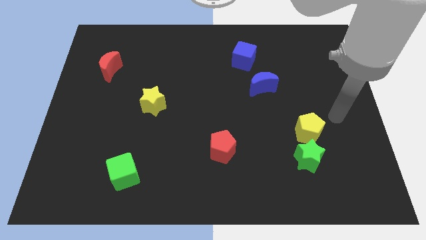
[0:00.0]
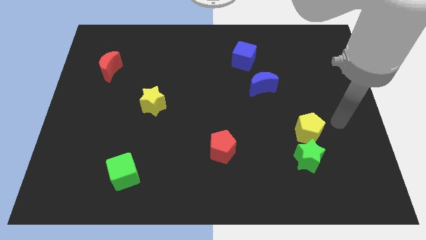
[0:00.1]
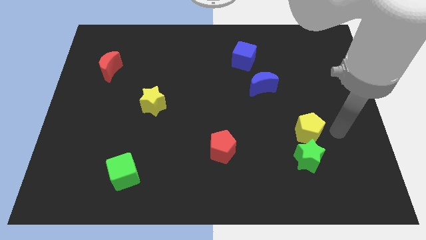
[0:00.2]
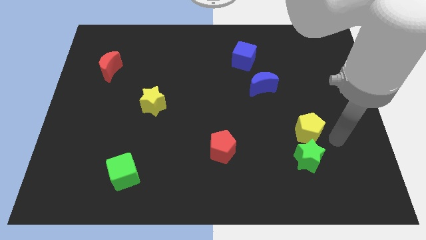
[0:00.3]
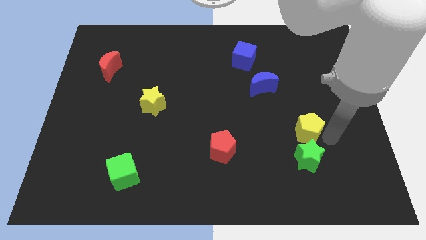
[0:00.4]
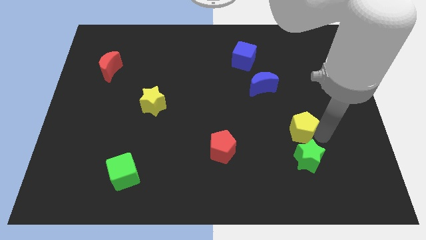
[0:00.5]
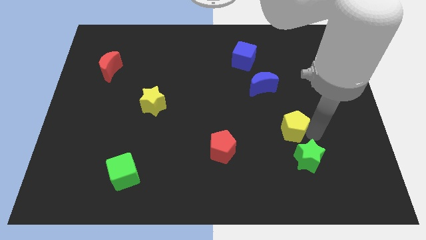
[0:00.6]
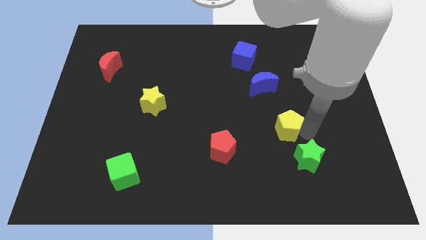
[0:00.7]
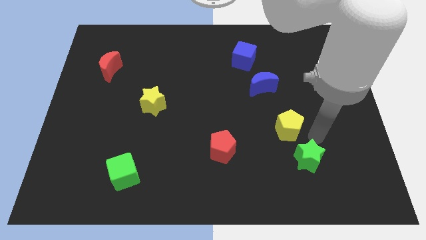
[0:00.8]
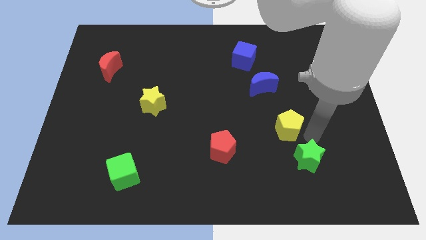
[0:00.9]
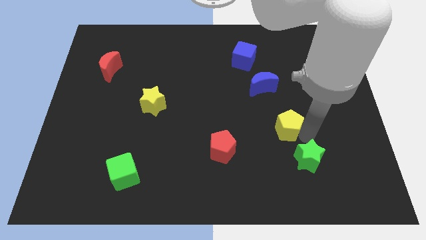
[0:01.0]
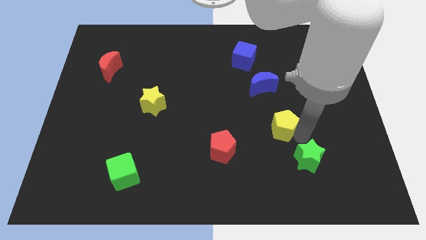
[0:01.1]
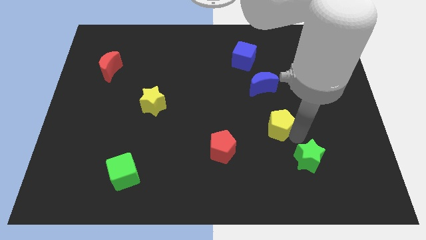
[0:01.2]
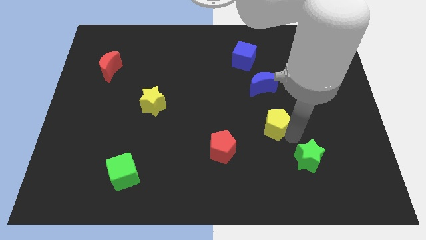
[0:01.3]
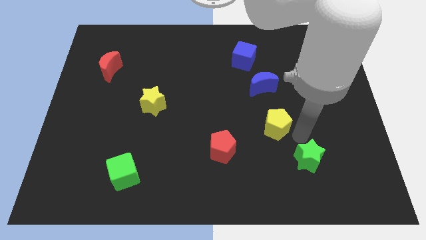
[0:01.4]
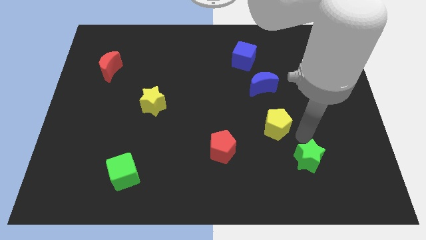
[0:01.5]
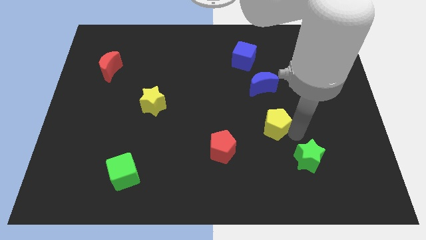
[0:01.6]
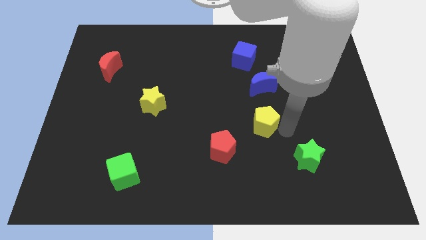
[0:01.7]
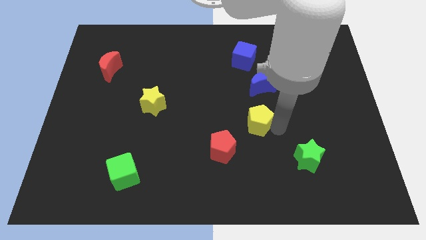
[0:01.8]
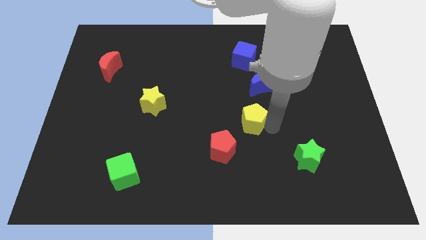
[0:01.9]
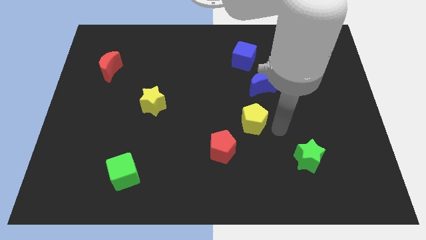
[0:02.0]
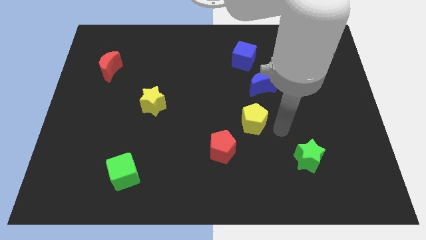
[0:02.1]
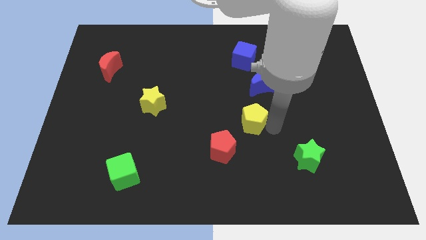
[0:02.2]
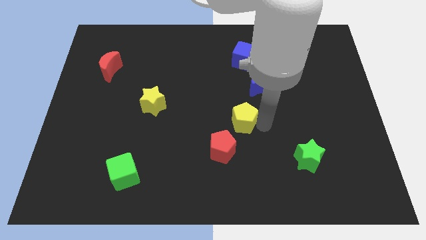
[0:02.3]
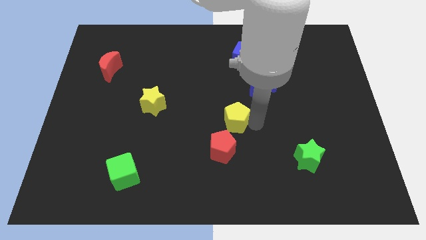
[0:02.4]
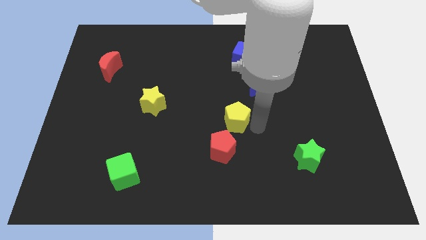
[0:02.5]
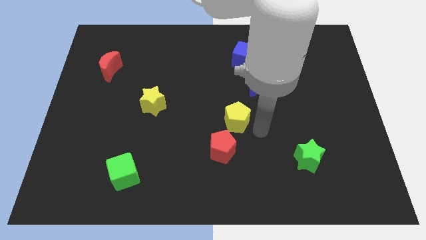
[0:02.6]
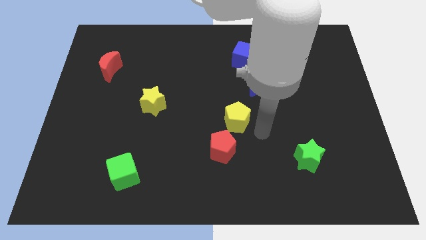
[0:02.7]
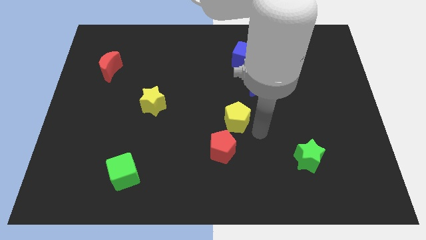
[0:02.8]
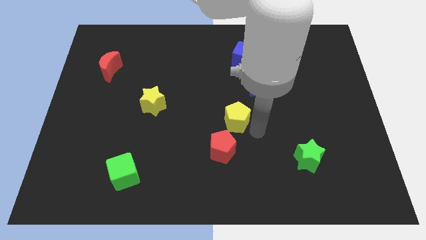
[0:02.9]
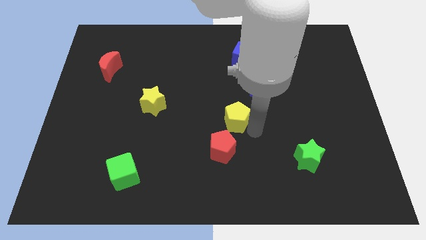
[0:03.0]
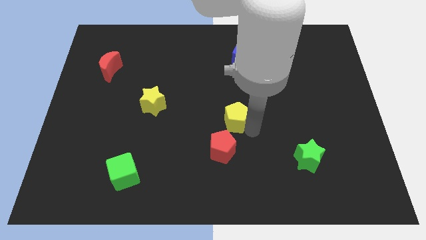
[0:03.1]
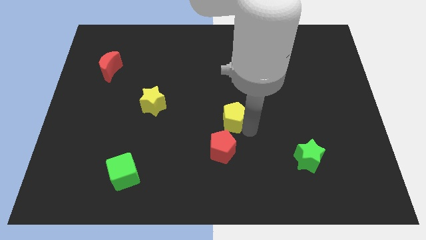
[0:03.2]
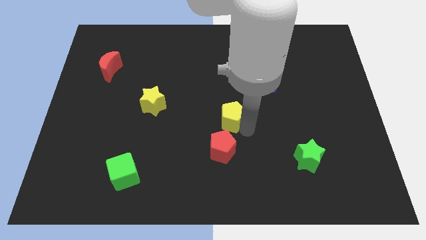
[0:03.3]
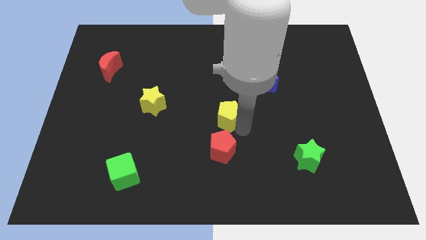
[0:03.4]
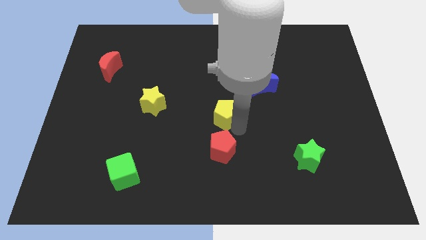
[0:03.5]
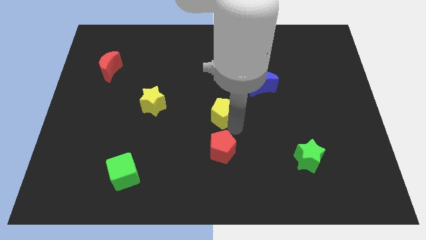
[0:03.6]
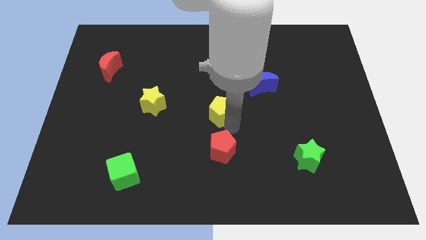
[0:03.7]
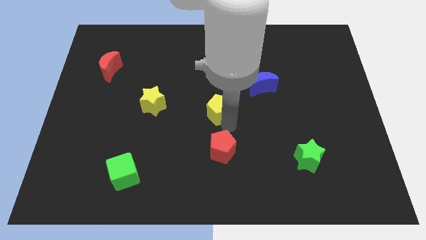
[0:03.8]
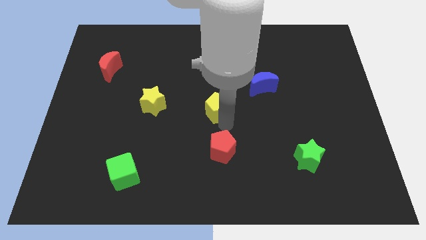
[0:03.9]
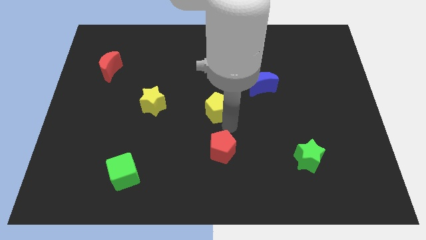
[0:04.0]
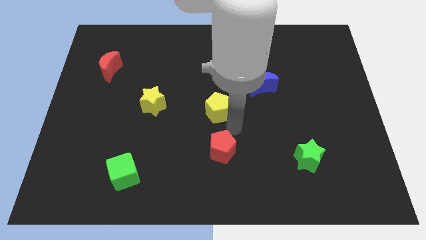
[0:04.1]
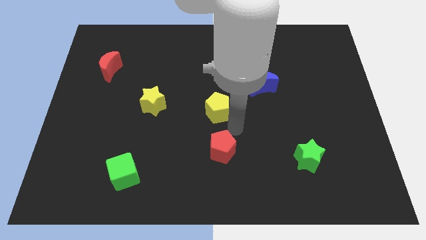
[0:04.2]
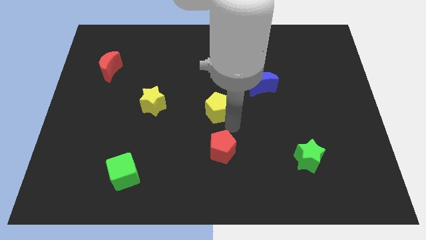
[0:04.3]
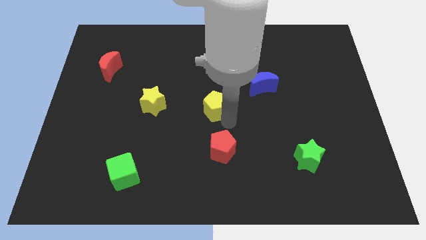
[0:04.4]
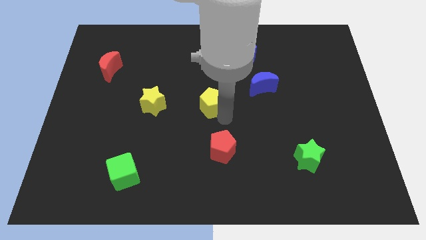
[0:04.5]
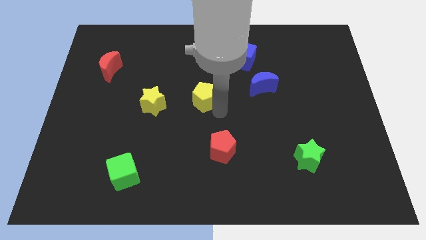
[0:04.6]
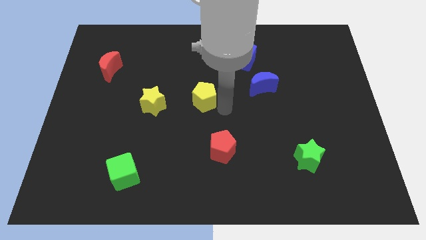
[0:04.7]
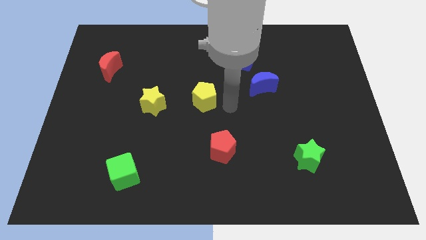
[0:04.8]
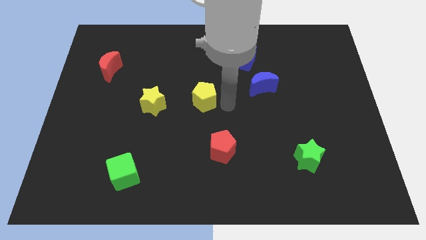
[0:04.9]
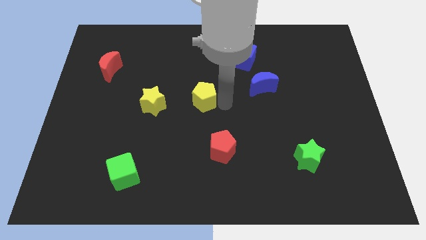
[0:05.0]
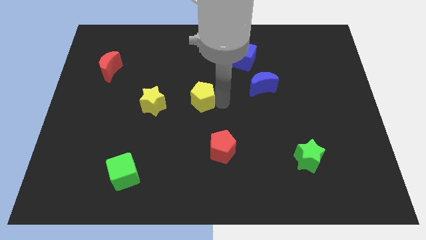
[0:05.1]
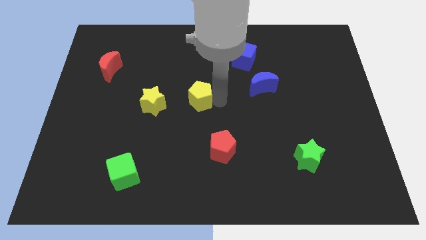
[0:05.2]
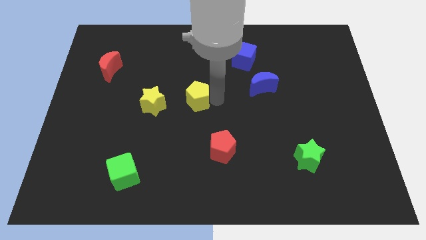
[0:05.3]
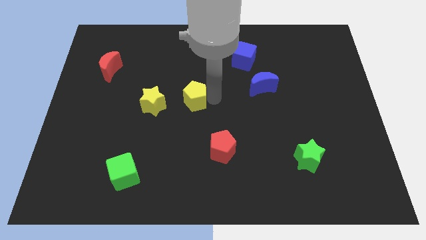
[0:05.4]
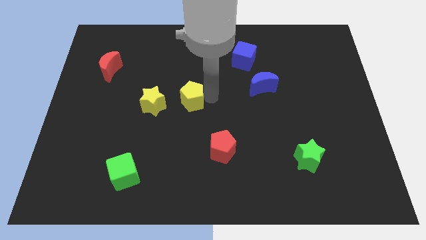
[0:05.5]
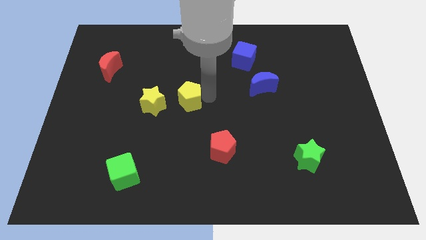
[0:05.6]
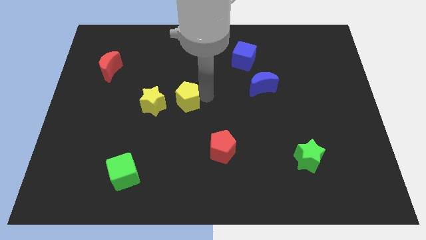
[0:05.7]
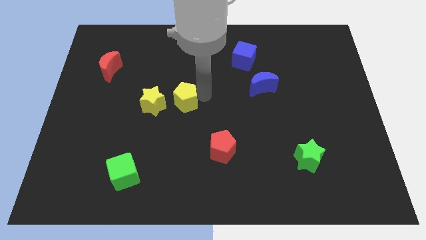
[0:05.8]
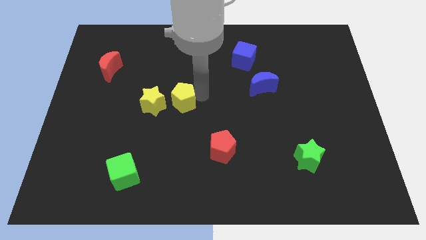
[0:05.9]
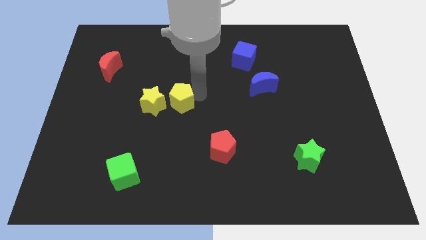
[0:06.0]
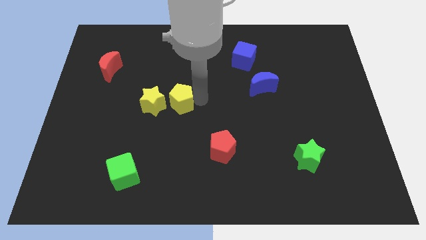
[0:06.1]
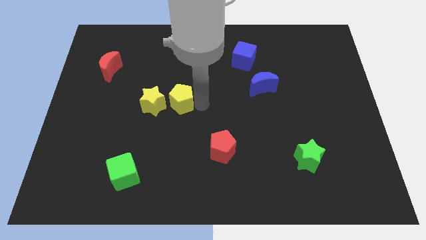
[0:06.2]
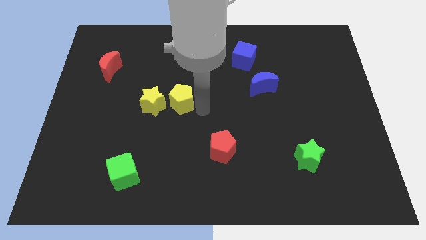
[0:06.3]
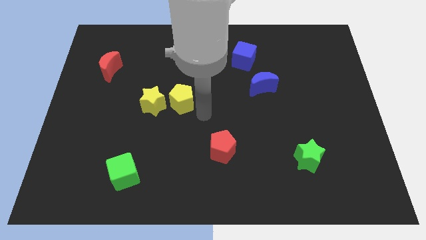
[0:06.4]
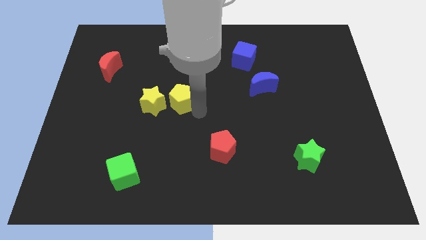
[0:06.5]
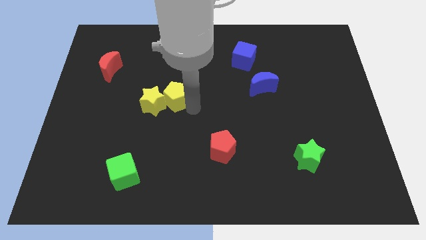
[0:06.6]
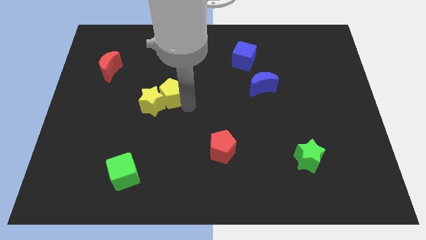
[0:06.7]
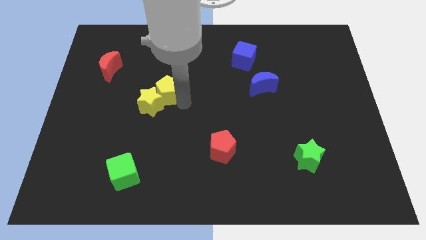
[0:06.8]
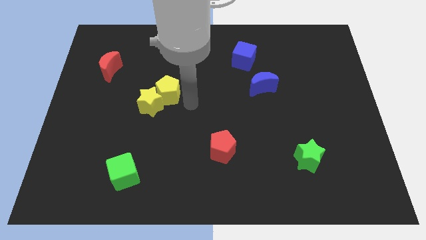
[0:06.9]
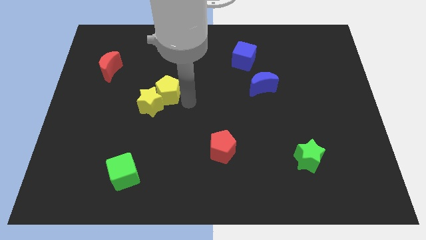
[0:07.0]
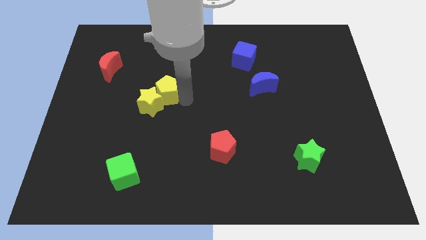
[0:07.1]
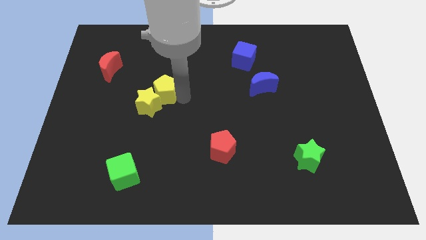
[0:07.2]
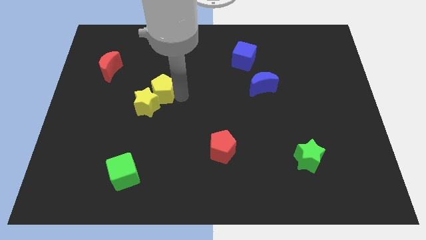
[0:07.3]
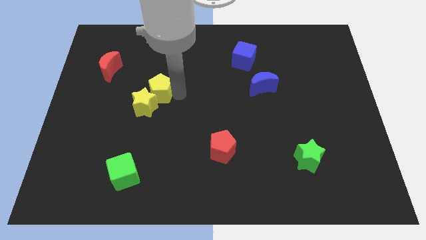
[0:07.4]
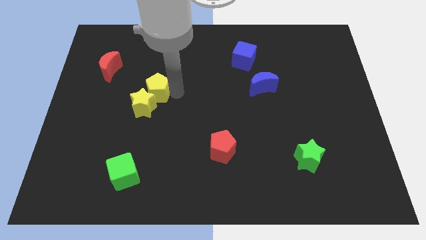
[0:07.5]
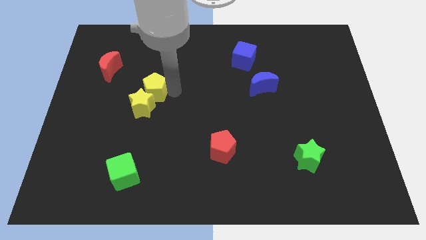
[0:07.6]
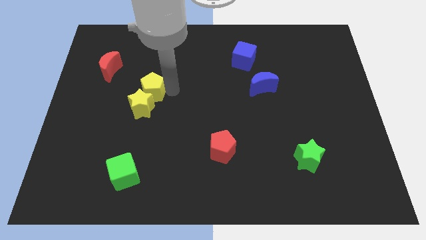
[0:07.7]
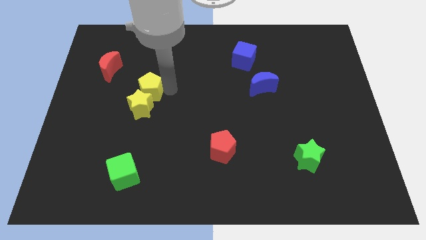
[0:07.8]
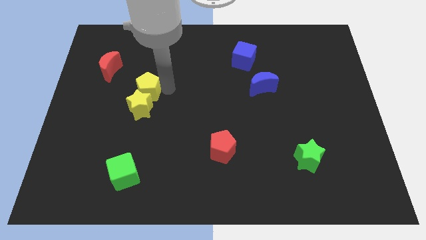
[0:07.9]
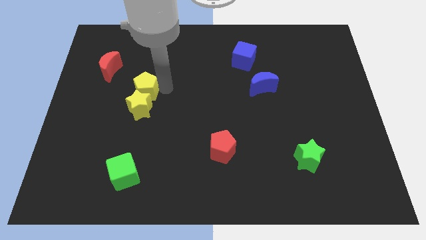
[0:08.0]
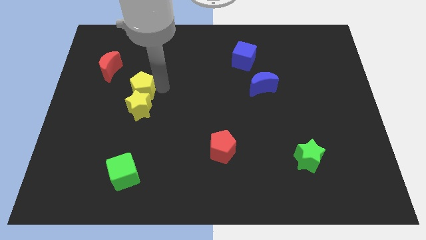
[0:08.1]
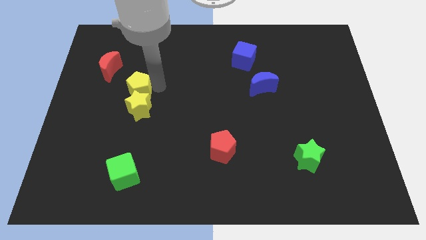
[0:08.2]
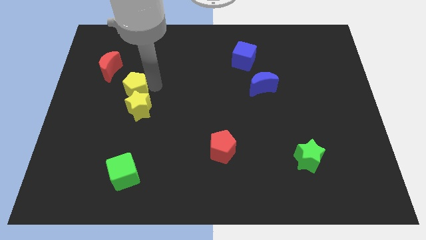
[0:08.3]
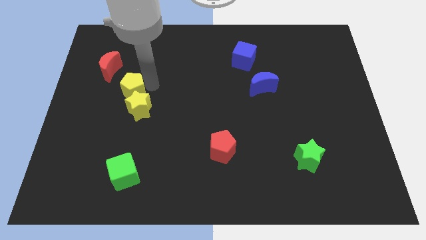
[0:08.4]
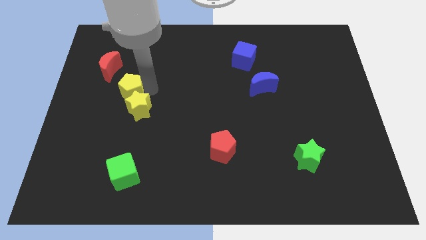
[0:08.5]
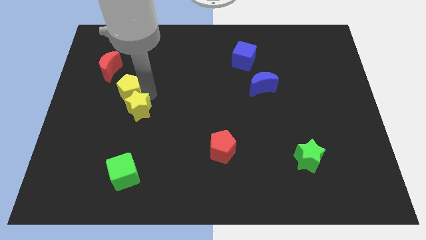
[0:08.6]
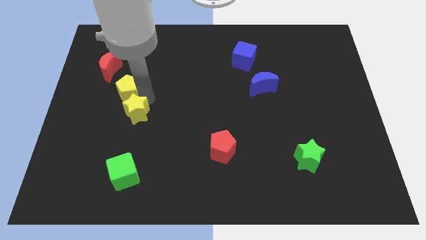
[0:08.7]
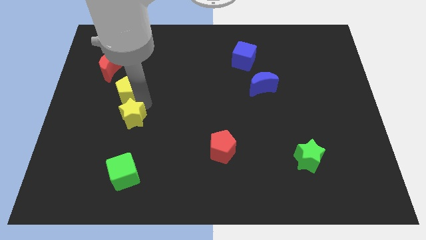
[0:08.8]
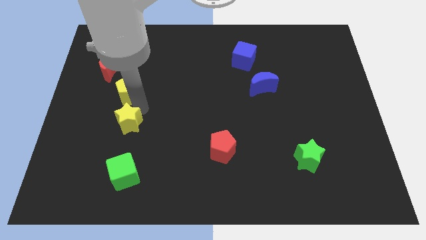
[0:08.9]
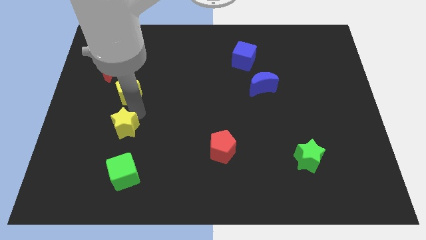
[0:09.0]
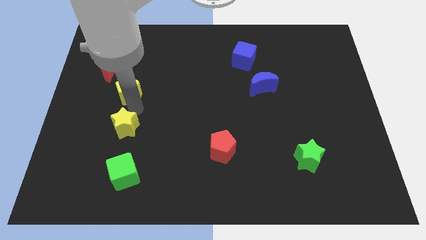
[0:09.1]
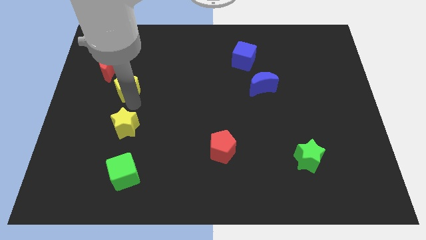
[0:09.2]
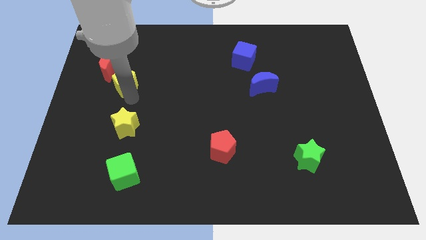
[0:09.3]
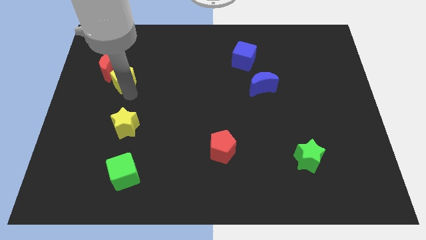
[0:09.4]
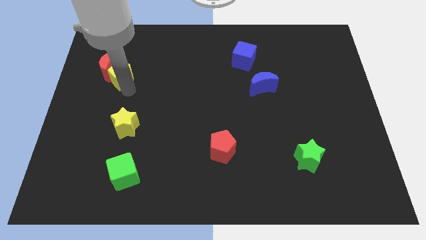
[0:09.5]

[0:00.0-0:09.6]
slide the yellow pentagon to the red moon
